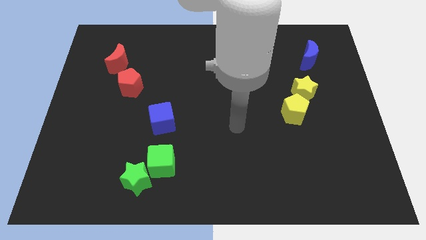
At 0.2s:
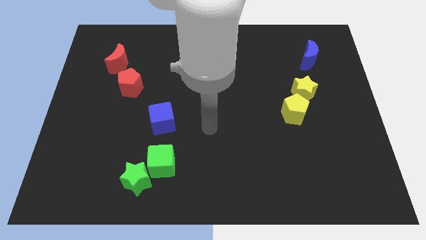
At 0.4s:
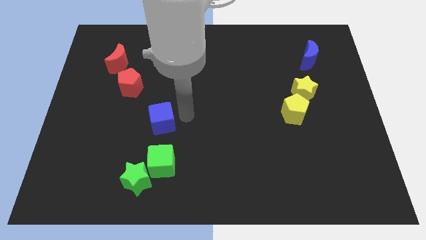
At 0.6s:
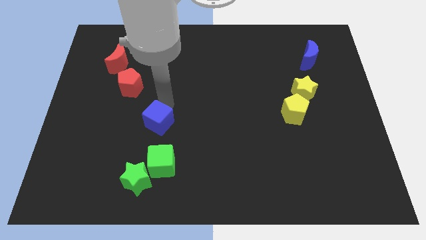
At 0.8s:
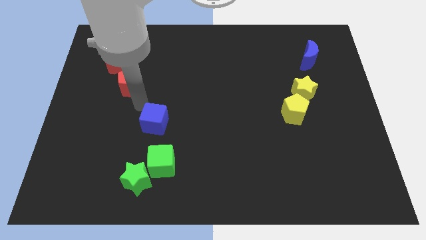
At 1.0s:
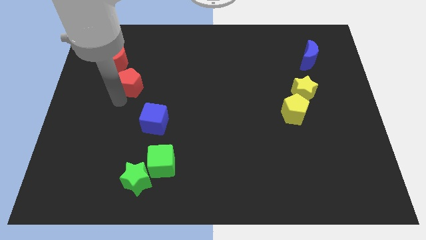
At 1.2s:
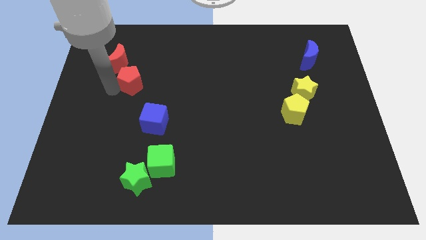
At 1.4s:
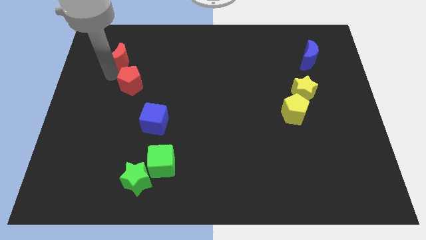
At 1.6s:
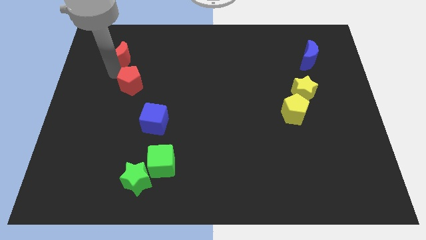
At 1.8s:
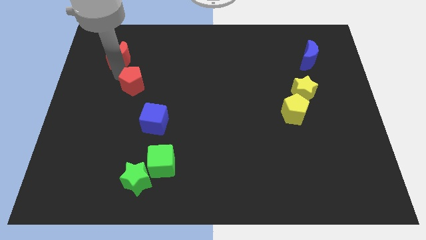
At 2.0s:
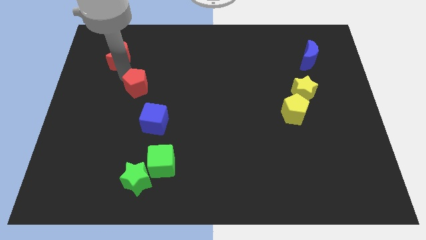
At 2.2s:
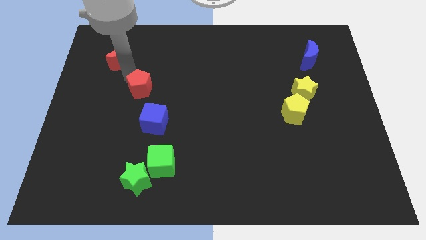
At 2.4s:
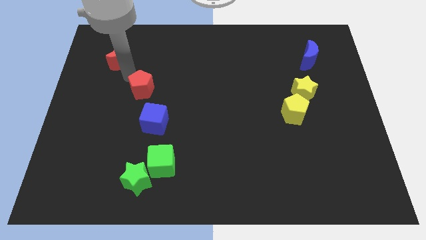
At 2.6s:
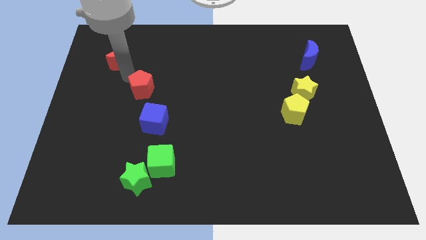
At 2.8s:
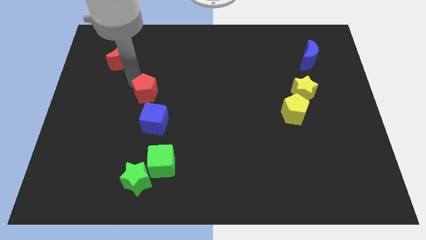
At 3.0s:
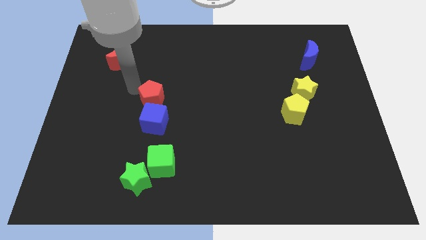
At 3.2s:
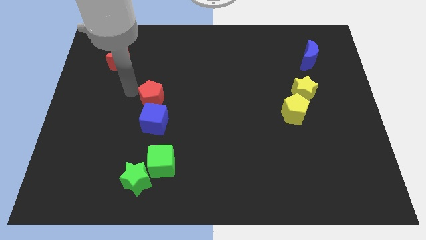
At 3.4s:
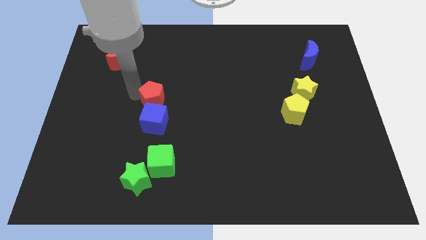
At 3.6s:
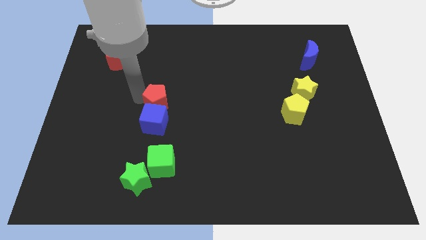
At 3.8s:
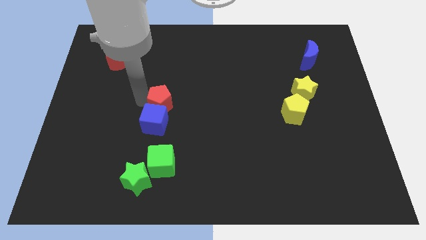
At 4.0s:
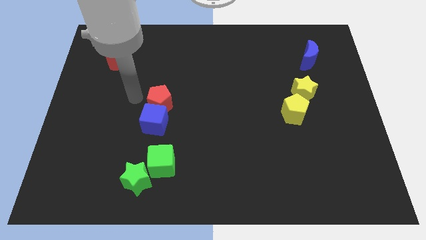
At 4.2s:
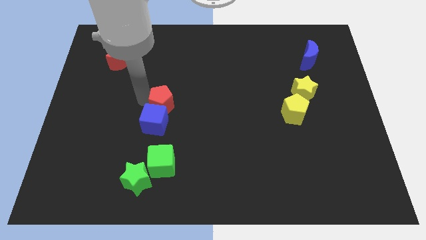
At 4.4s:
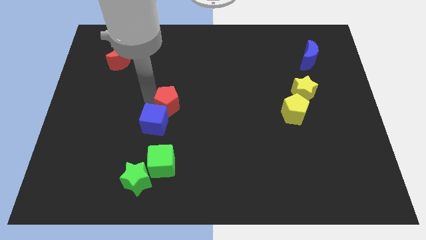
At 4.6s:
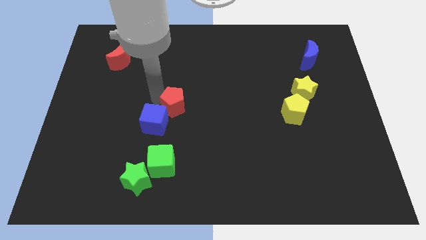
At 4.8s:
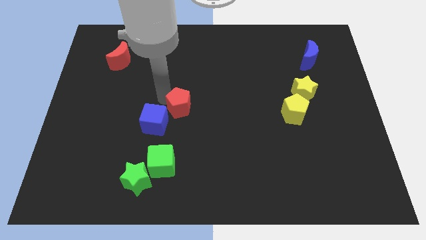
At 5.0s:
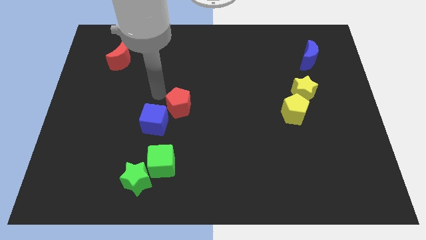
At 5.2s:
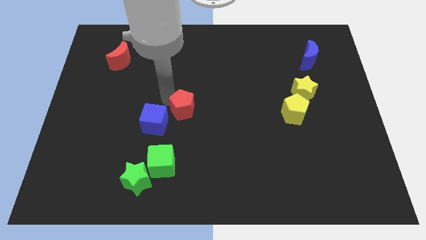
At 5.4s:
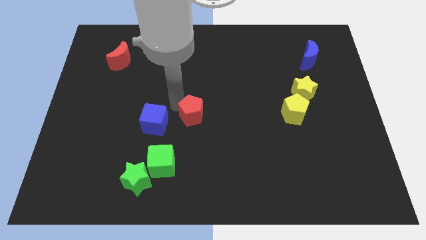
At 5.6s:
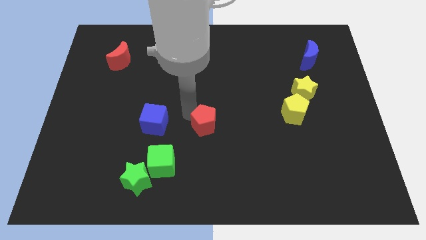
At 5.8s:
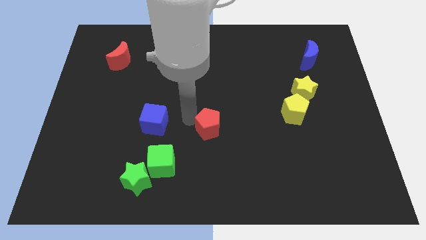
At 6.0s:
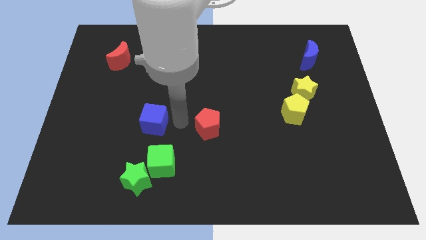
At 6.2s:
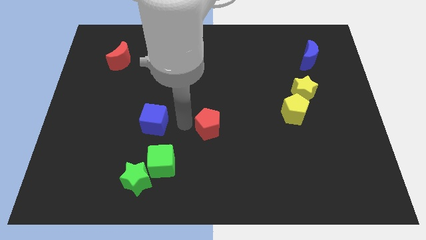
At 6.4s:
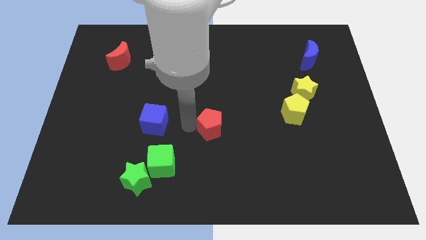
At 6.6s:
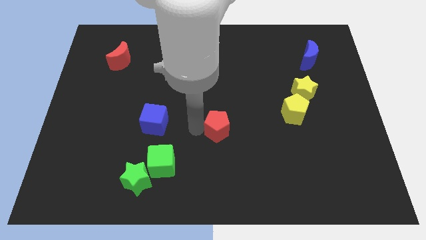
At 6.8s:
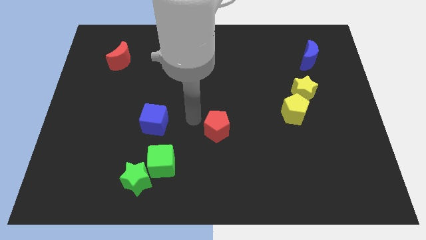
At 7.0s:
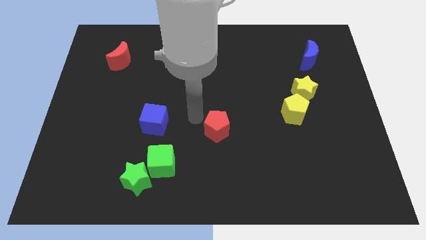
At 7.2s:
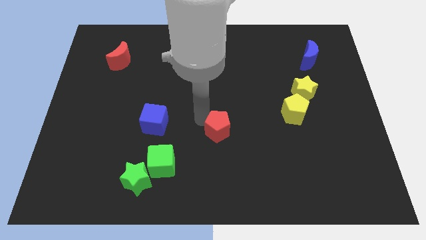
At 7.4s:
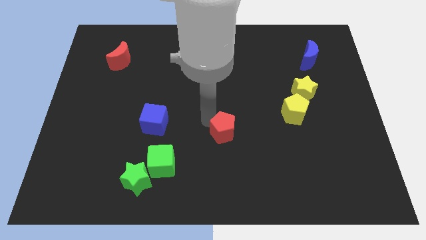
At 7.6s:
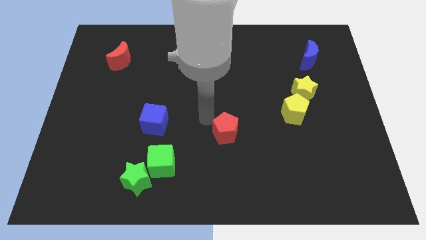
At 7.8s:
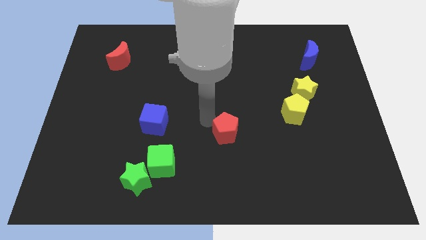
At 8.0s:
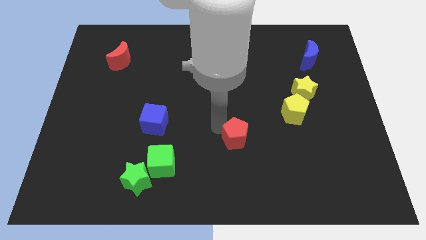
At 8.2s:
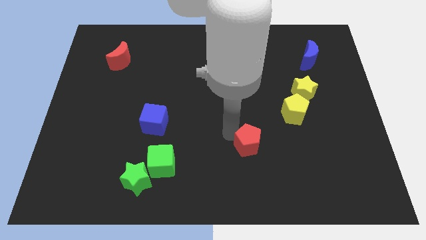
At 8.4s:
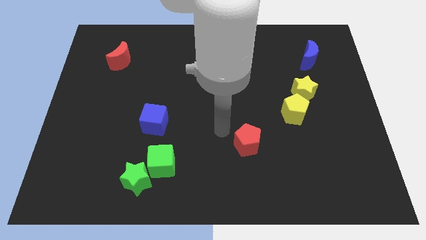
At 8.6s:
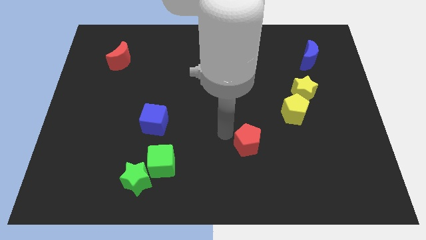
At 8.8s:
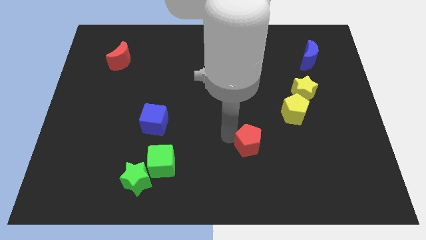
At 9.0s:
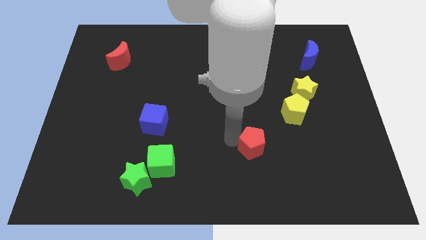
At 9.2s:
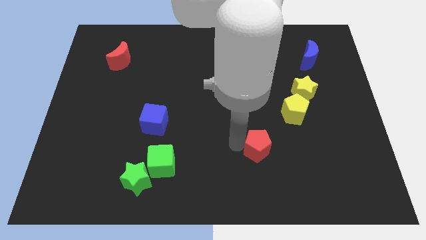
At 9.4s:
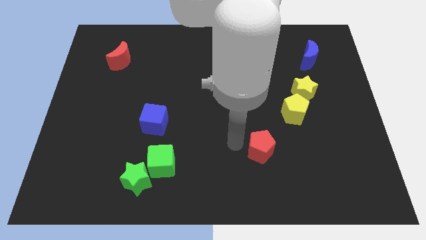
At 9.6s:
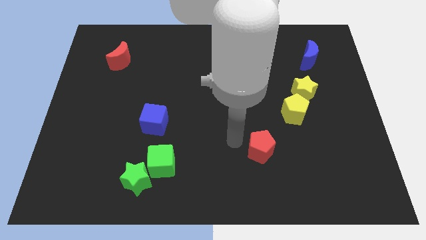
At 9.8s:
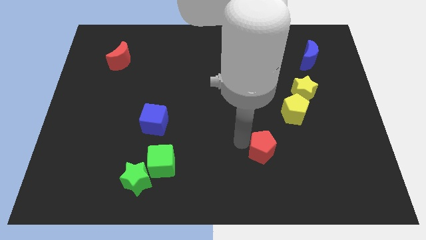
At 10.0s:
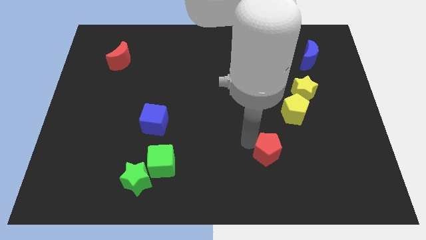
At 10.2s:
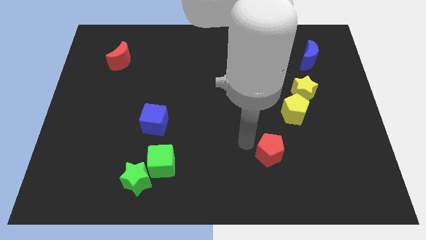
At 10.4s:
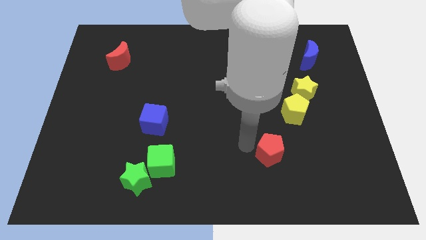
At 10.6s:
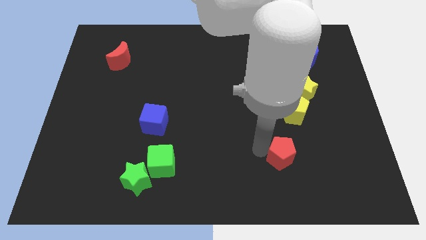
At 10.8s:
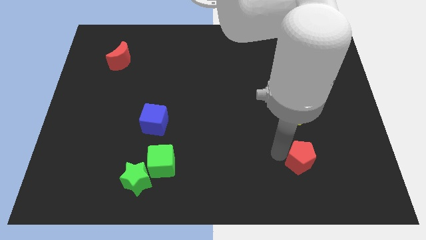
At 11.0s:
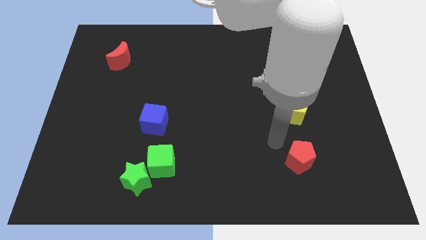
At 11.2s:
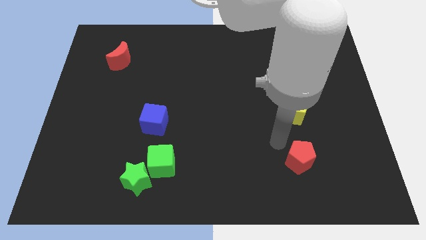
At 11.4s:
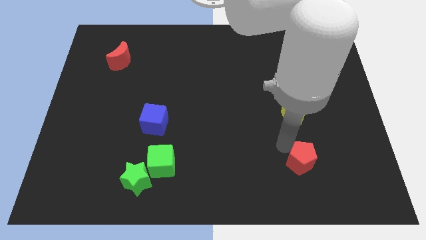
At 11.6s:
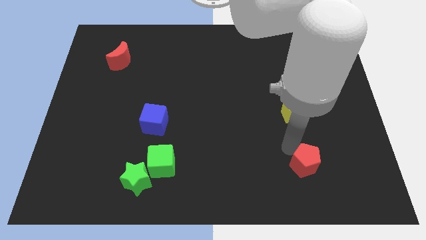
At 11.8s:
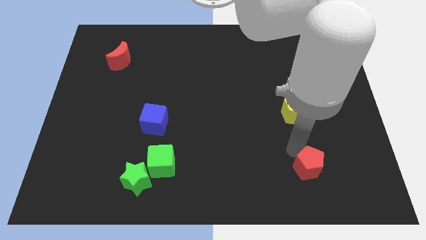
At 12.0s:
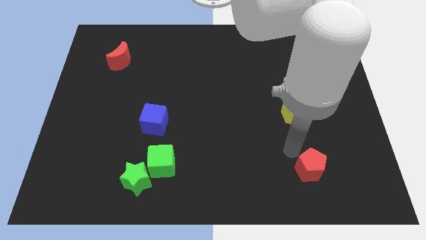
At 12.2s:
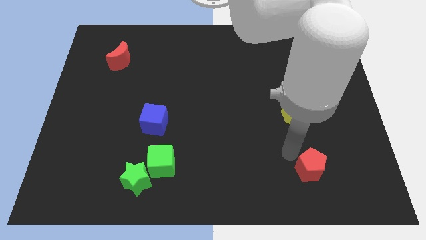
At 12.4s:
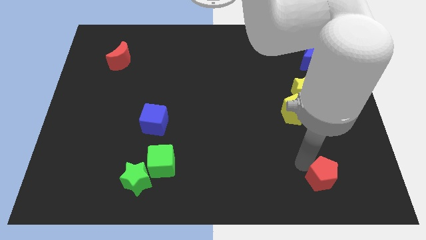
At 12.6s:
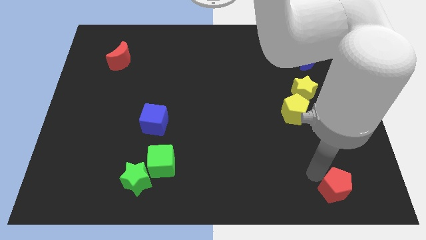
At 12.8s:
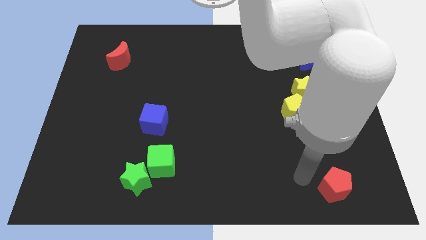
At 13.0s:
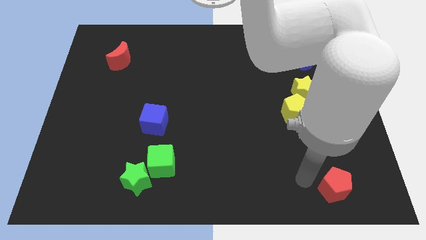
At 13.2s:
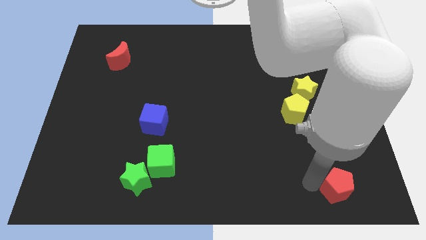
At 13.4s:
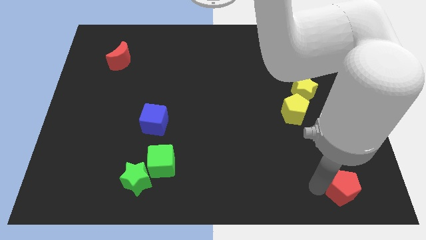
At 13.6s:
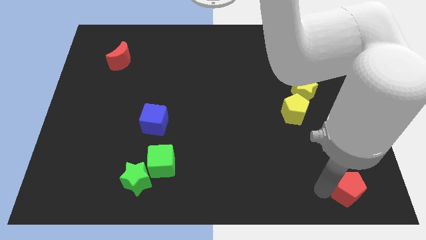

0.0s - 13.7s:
put the red pentagon to the bottom right of the board
